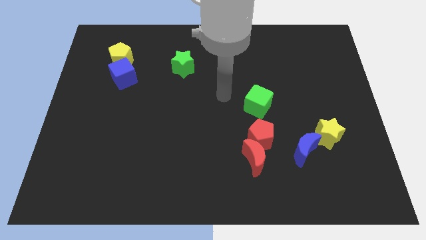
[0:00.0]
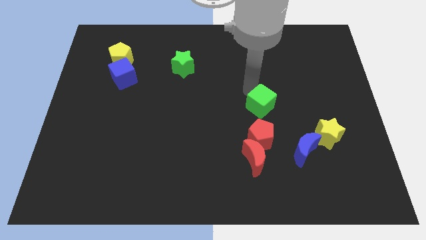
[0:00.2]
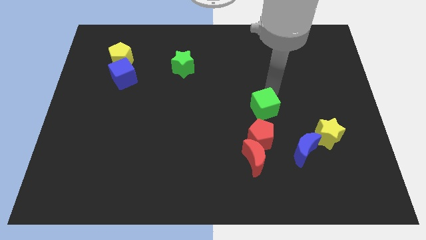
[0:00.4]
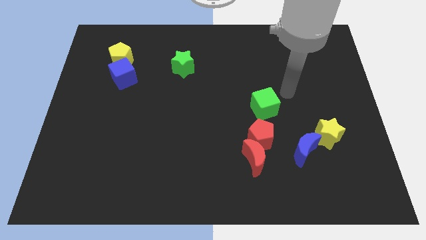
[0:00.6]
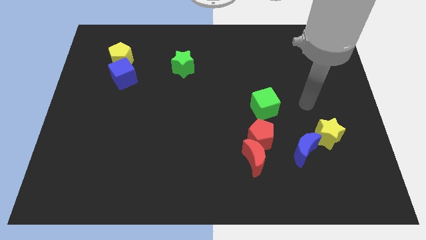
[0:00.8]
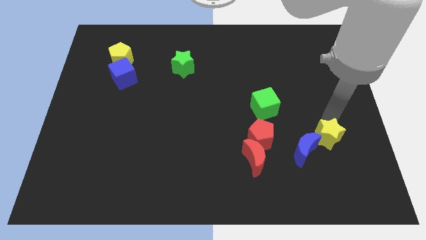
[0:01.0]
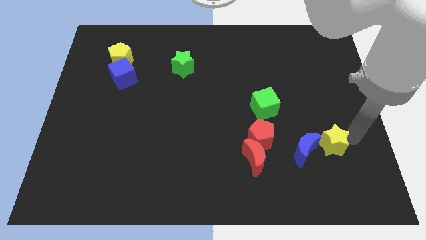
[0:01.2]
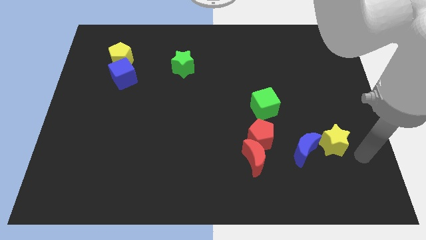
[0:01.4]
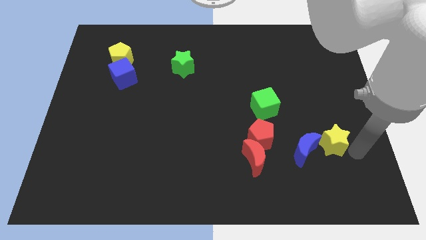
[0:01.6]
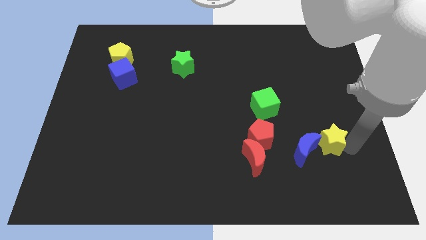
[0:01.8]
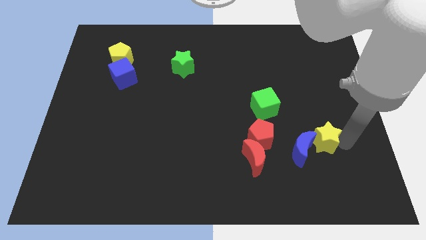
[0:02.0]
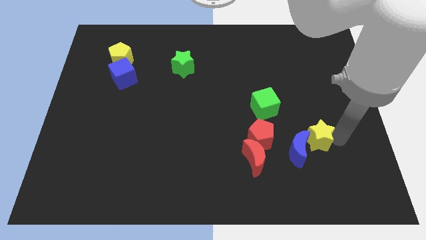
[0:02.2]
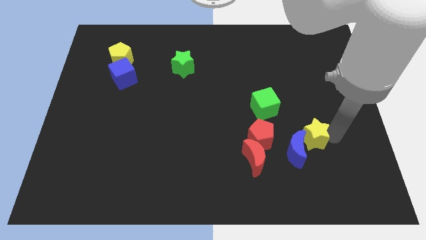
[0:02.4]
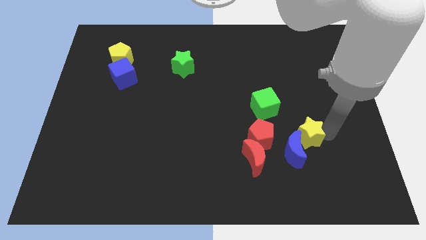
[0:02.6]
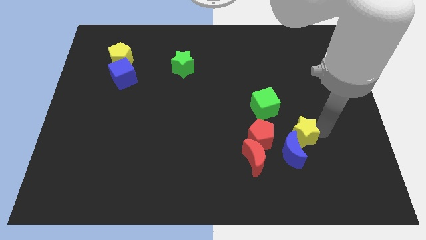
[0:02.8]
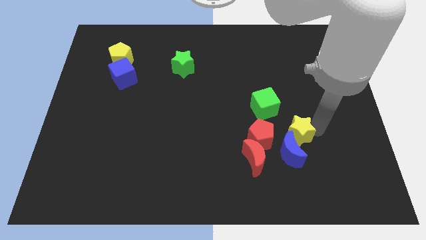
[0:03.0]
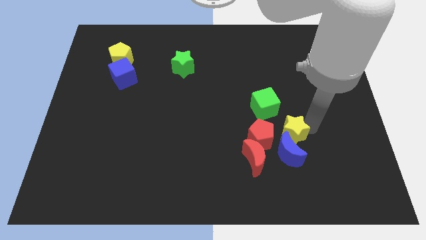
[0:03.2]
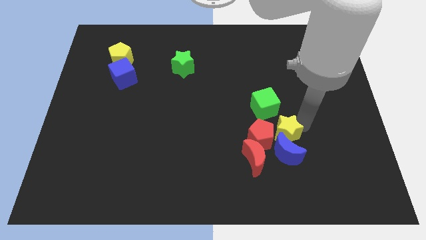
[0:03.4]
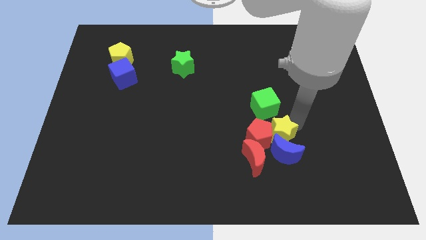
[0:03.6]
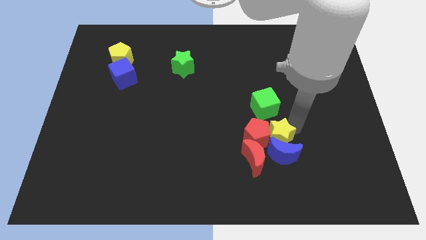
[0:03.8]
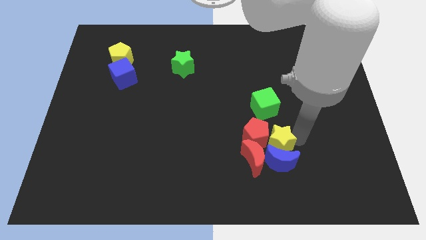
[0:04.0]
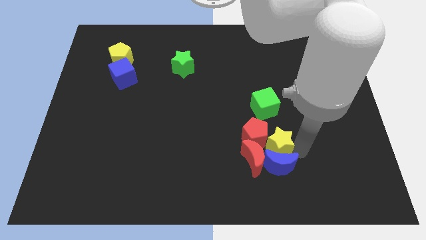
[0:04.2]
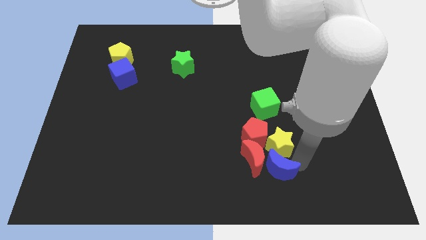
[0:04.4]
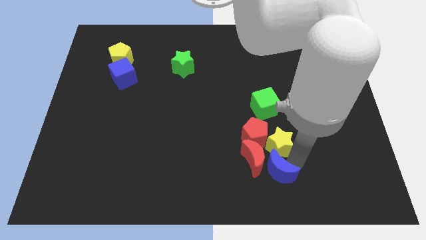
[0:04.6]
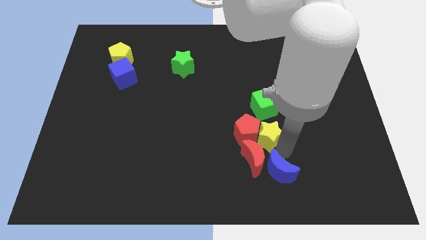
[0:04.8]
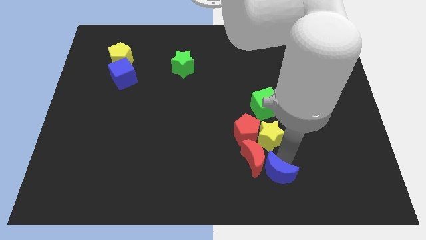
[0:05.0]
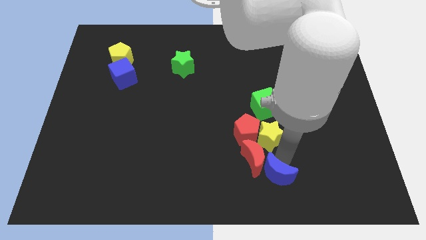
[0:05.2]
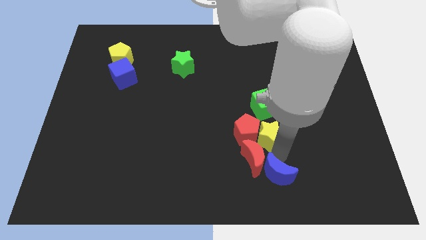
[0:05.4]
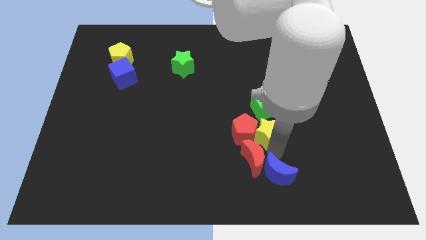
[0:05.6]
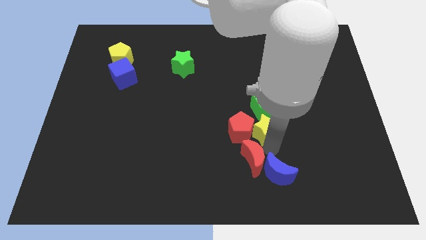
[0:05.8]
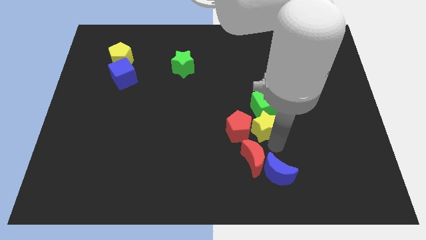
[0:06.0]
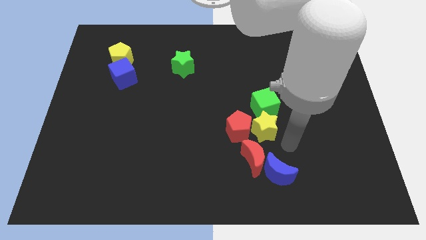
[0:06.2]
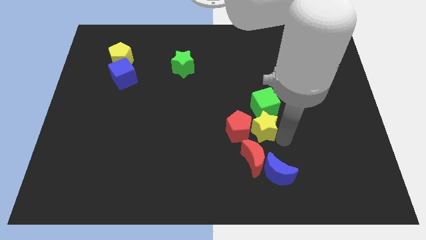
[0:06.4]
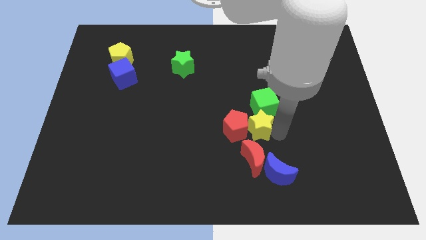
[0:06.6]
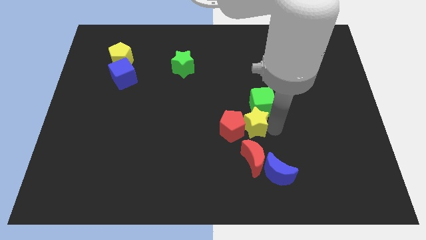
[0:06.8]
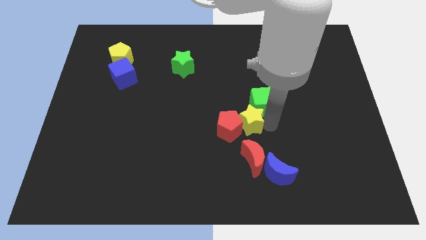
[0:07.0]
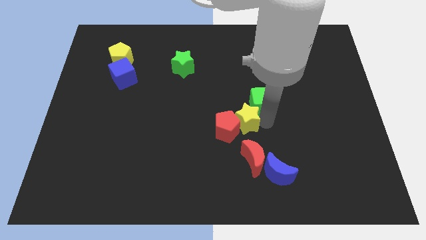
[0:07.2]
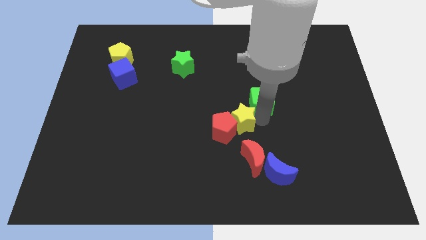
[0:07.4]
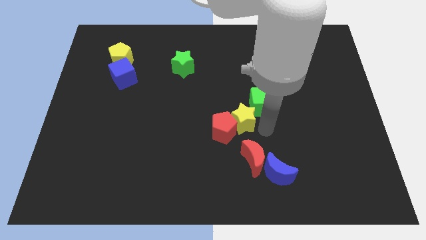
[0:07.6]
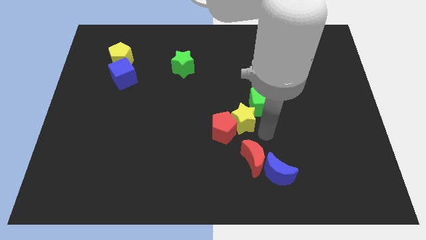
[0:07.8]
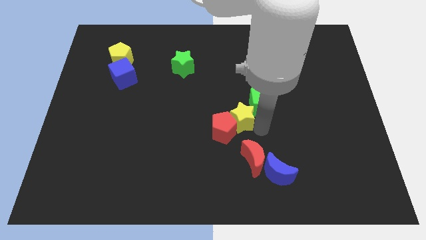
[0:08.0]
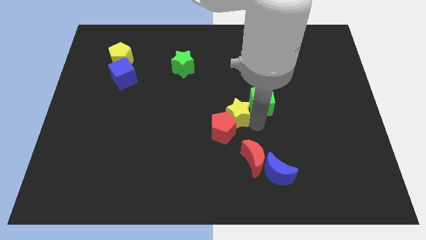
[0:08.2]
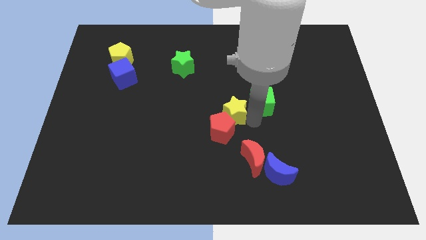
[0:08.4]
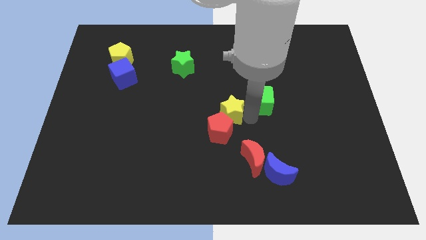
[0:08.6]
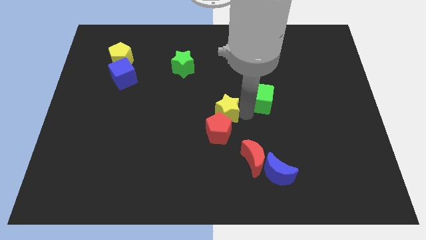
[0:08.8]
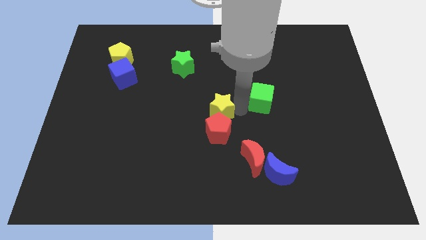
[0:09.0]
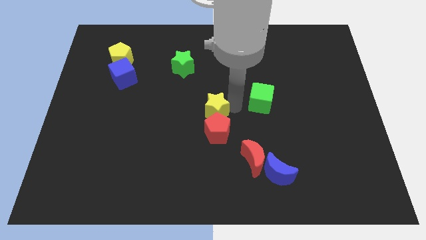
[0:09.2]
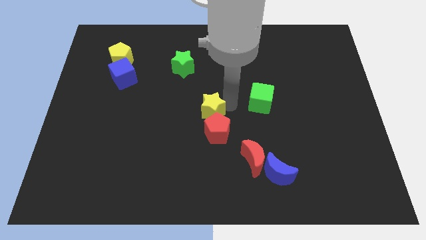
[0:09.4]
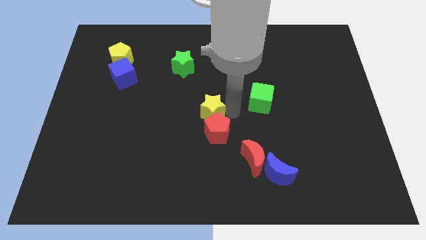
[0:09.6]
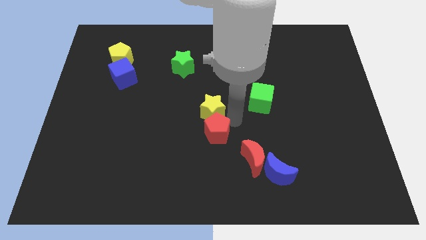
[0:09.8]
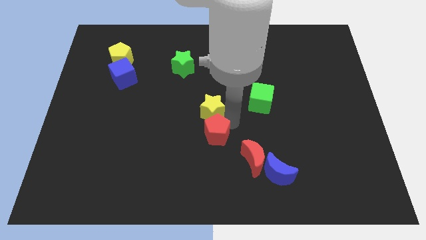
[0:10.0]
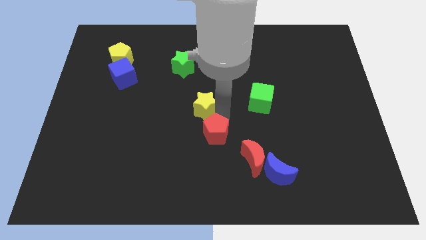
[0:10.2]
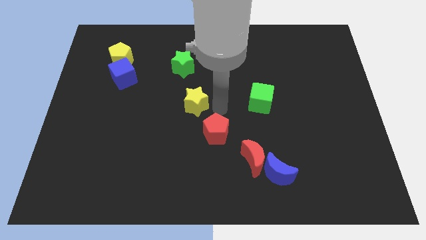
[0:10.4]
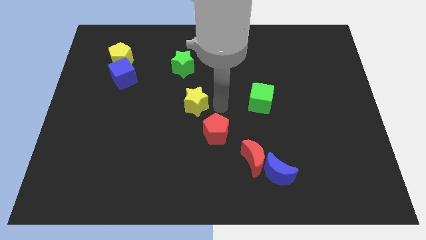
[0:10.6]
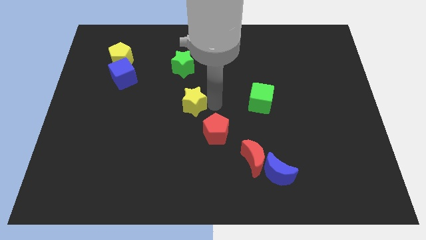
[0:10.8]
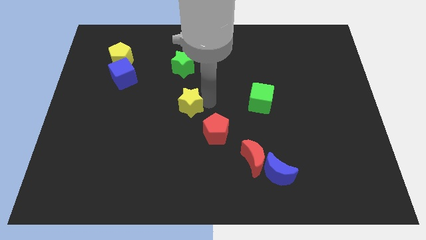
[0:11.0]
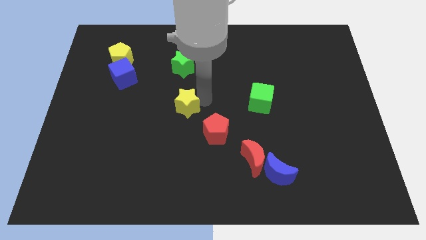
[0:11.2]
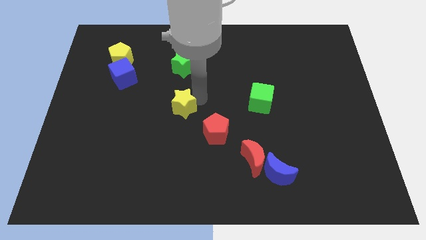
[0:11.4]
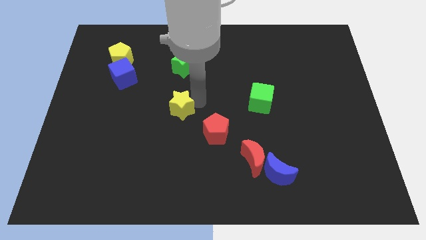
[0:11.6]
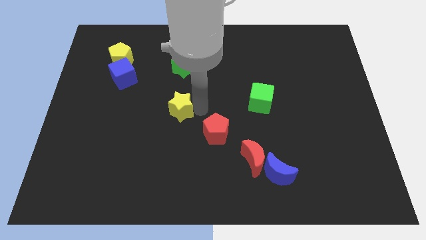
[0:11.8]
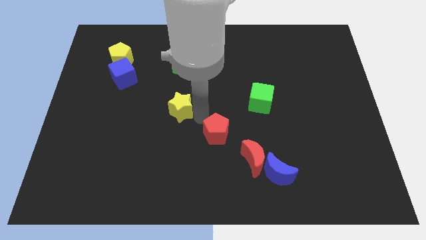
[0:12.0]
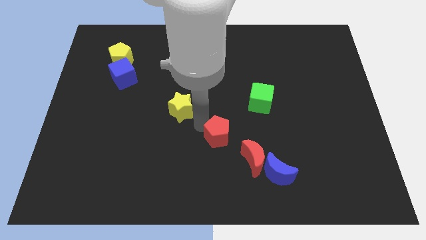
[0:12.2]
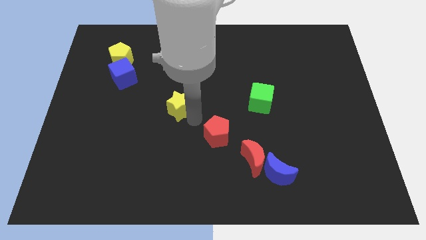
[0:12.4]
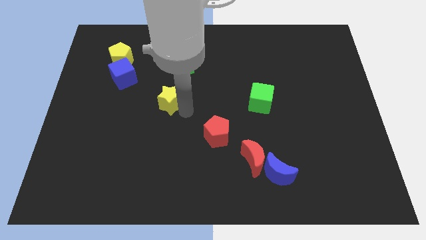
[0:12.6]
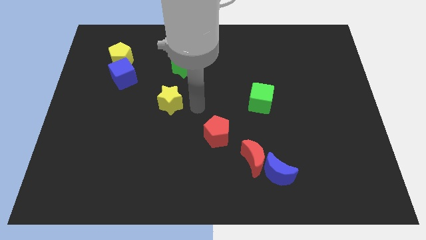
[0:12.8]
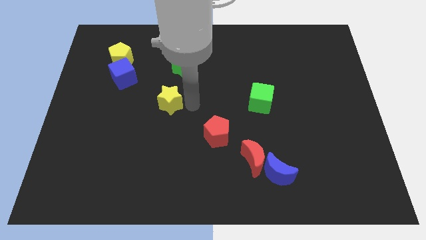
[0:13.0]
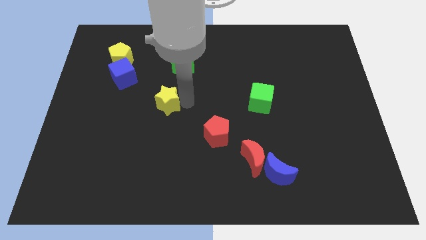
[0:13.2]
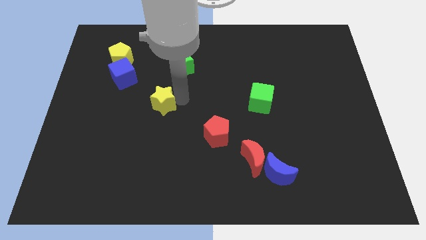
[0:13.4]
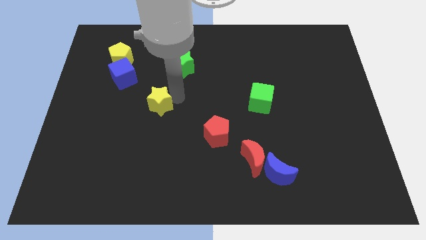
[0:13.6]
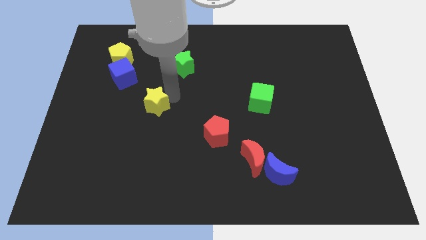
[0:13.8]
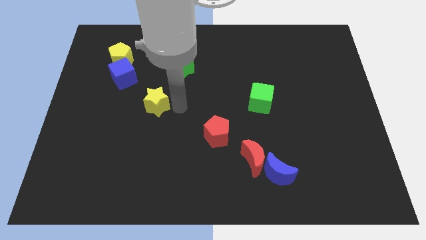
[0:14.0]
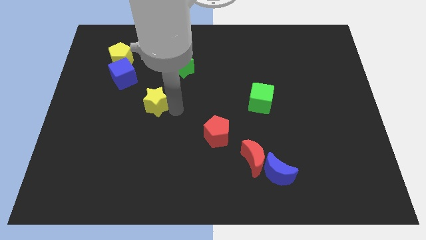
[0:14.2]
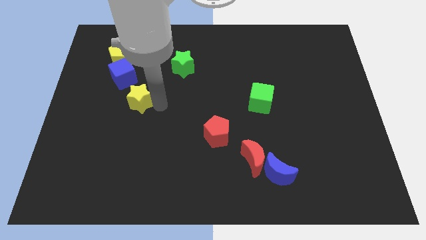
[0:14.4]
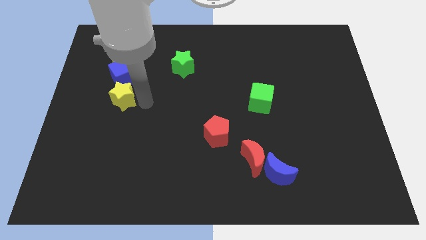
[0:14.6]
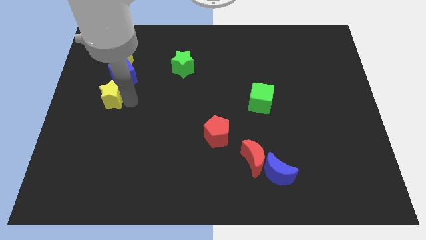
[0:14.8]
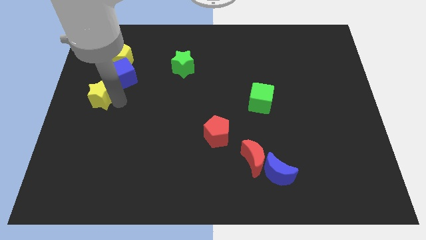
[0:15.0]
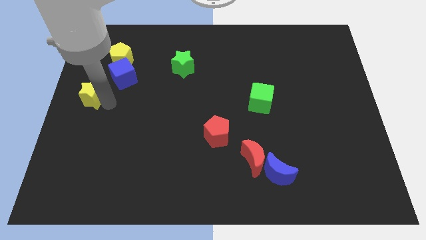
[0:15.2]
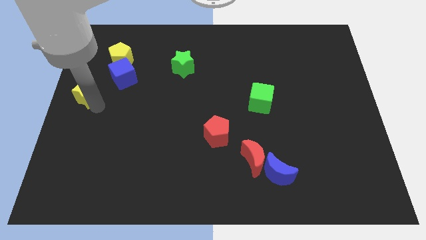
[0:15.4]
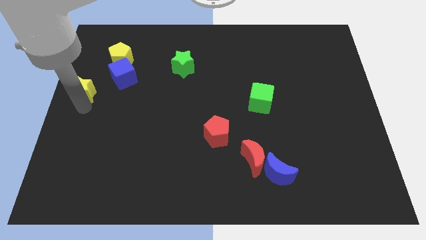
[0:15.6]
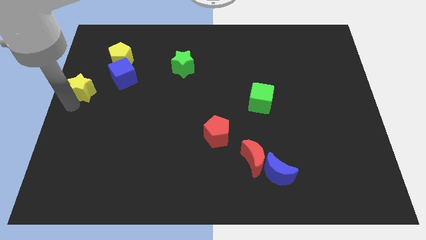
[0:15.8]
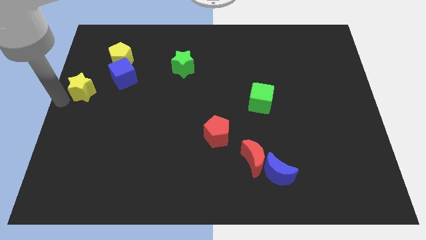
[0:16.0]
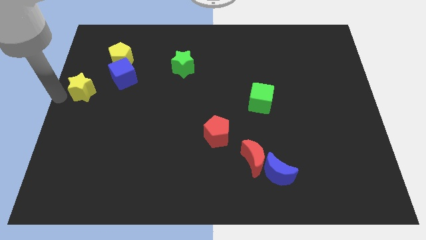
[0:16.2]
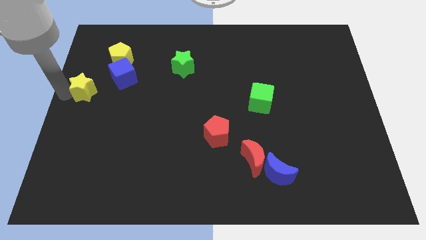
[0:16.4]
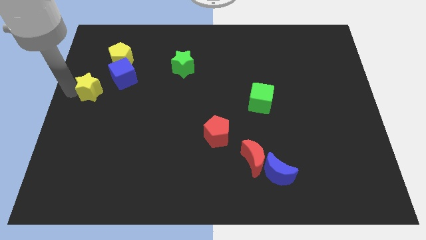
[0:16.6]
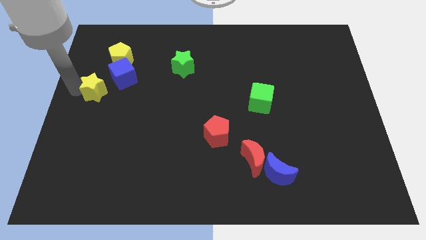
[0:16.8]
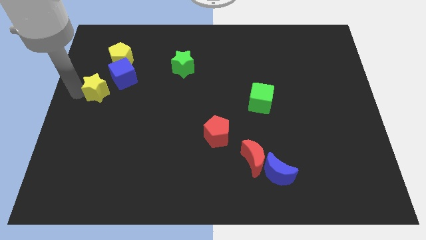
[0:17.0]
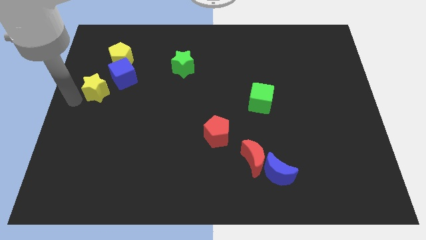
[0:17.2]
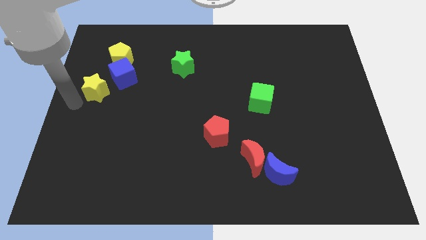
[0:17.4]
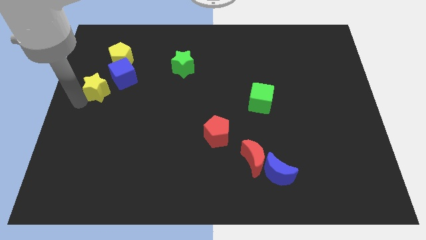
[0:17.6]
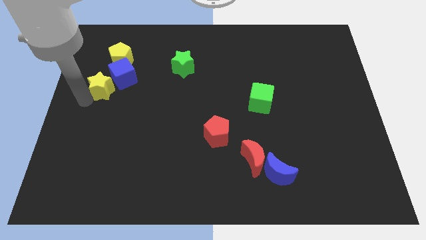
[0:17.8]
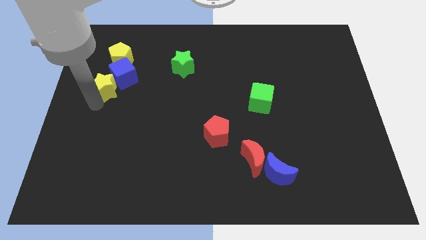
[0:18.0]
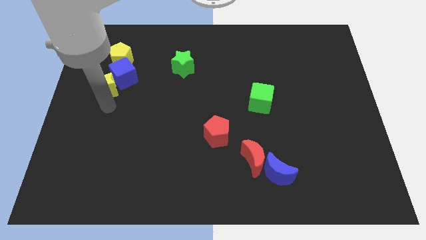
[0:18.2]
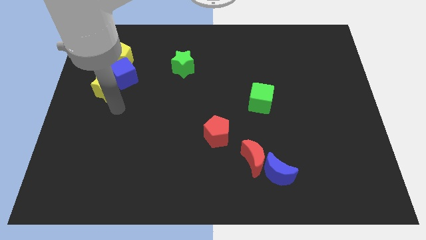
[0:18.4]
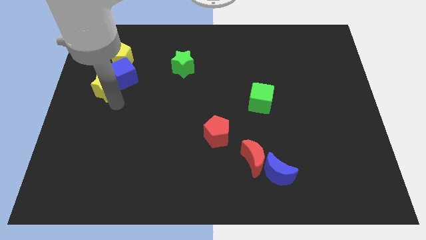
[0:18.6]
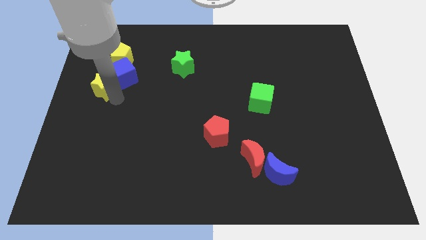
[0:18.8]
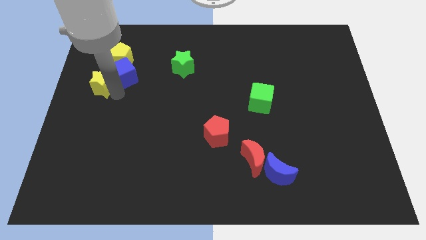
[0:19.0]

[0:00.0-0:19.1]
move the yellow star diagonally down and to the left of the yellow pentagon
